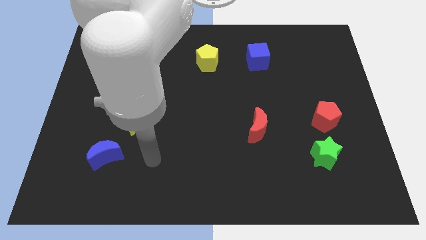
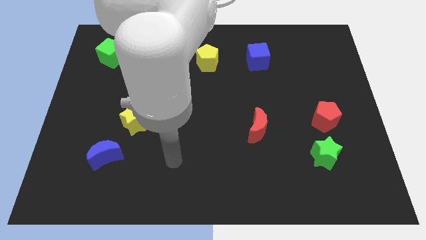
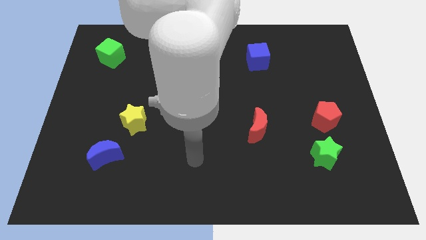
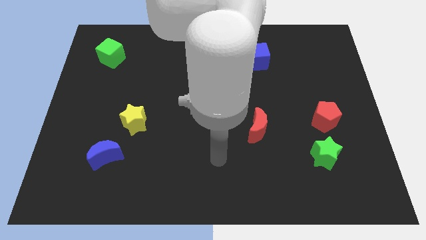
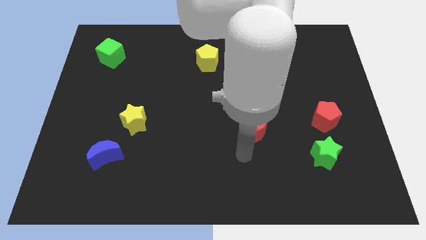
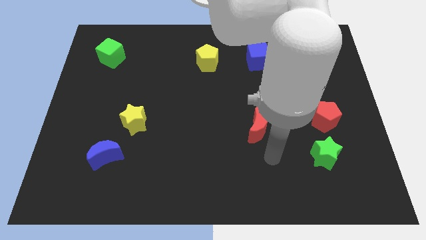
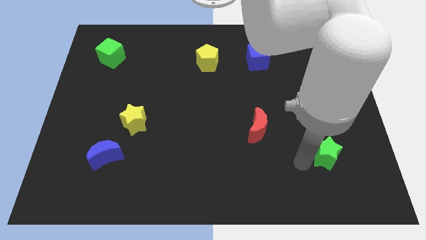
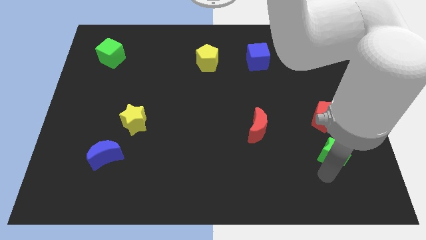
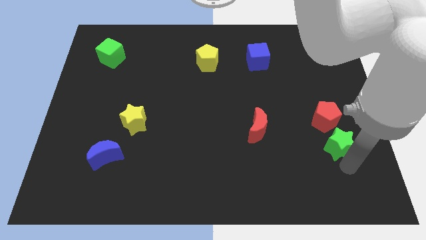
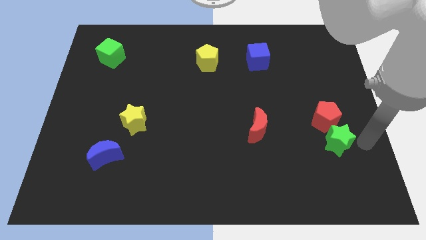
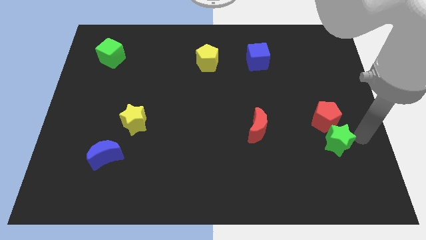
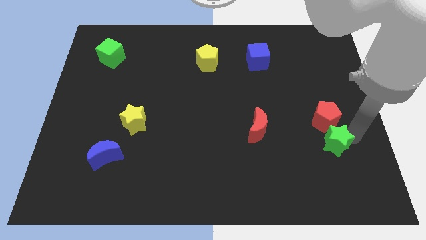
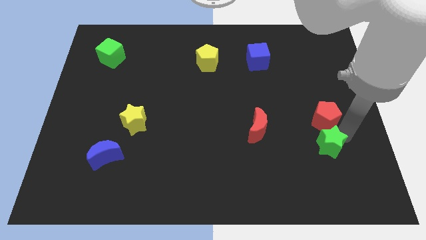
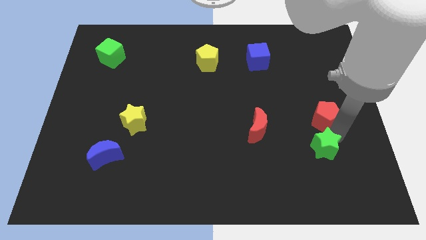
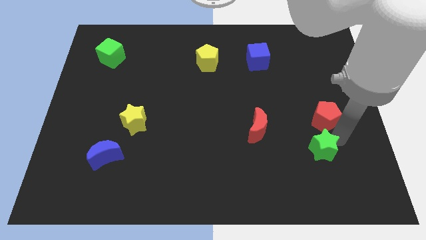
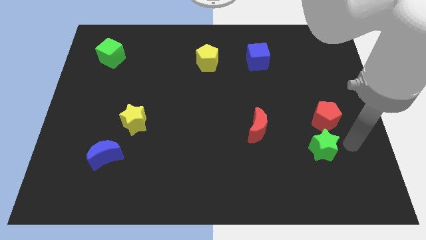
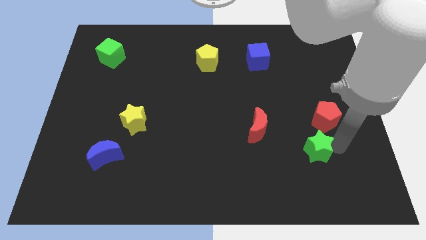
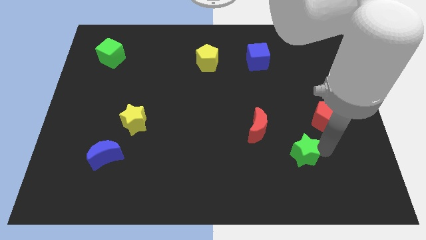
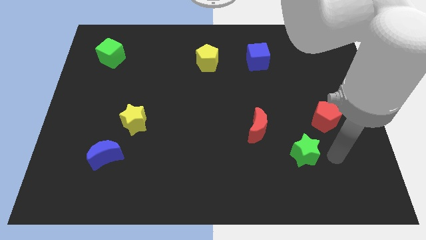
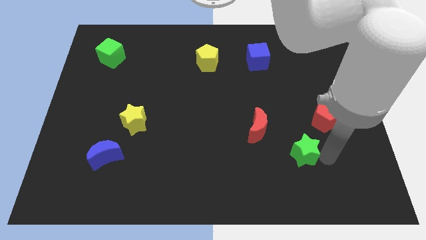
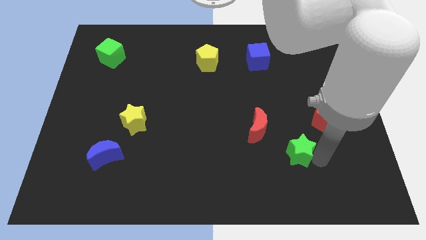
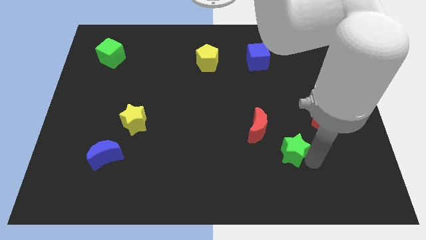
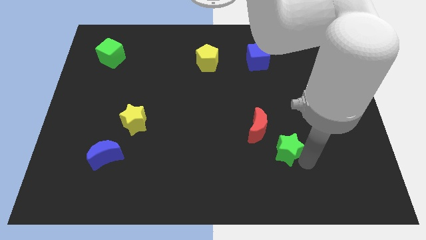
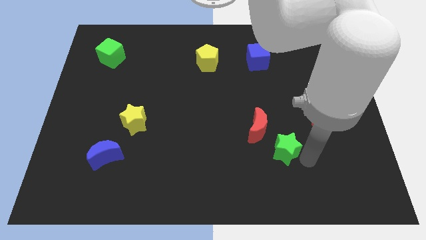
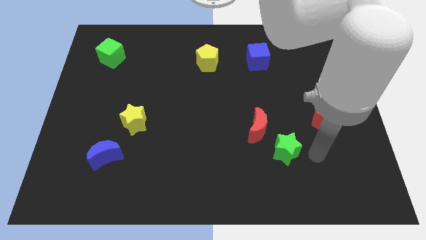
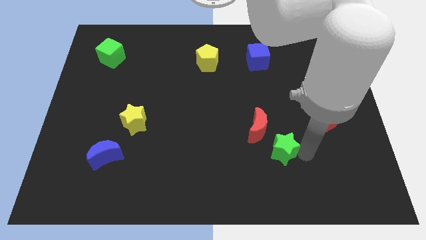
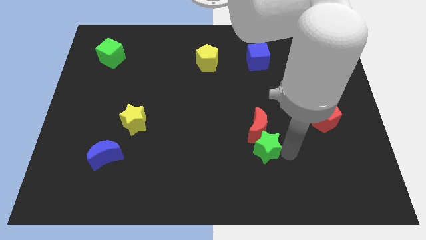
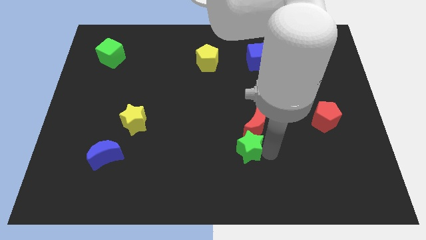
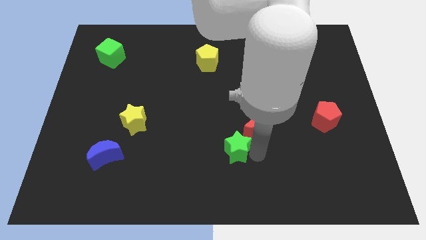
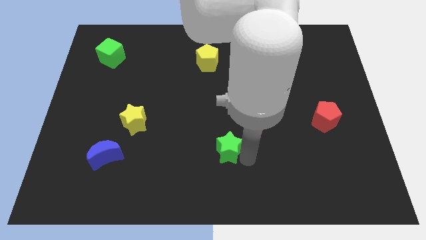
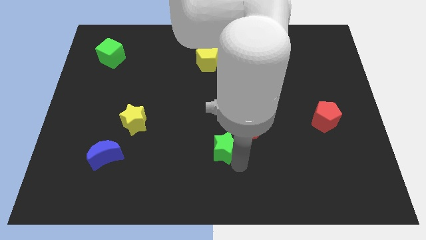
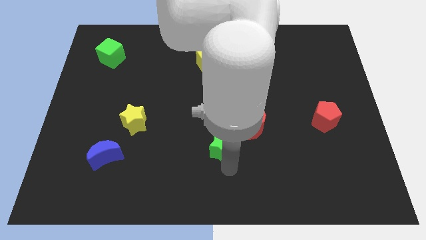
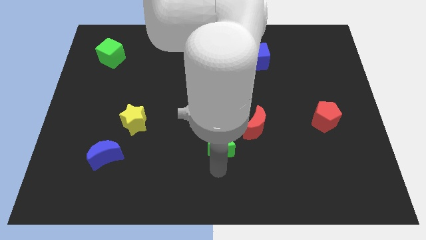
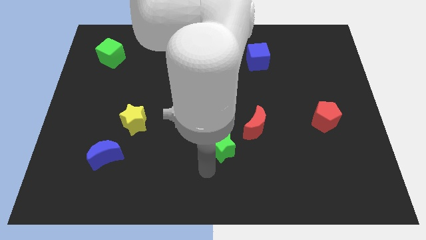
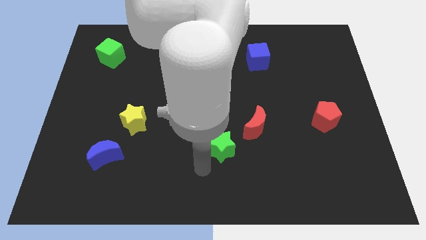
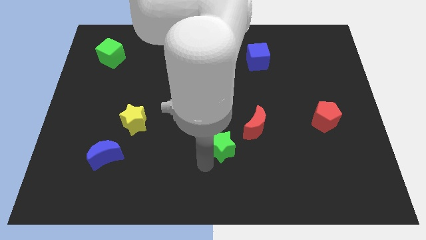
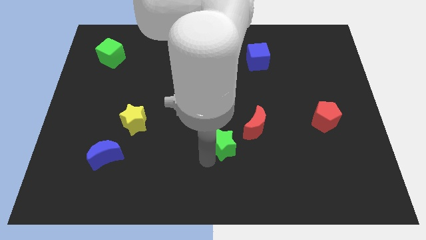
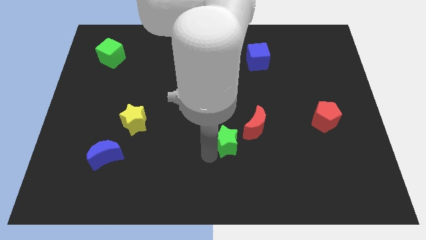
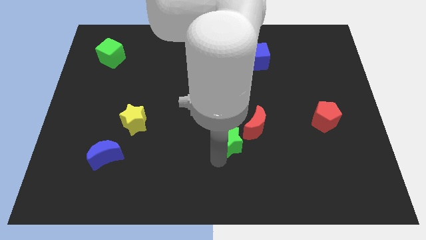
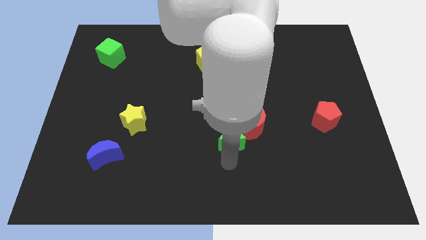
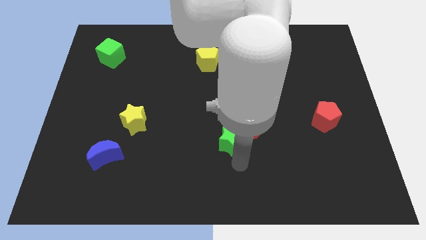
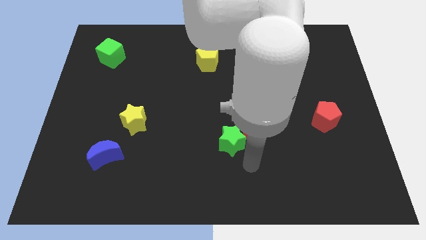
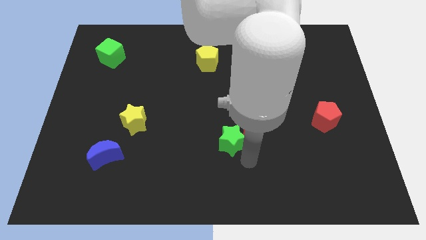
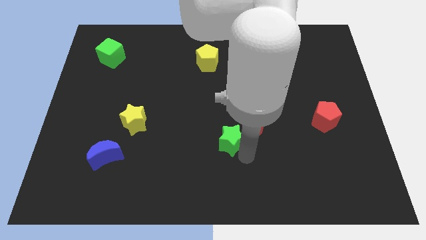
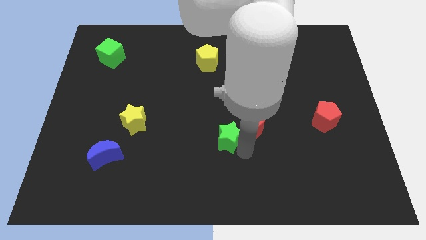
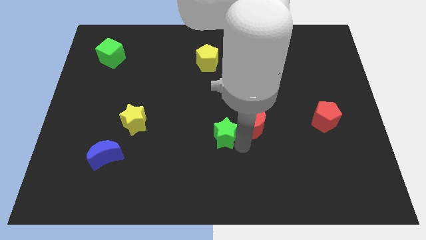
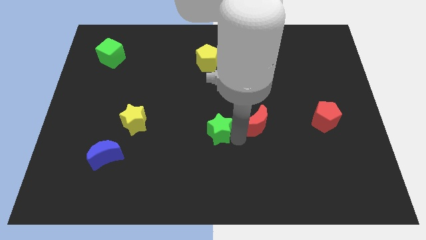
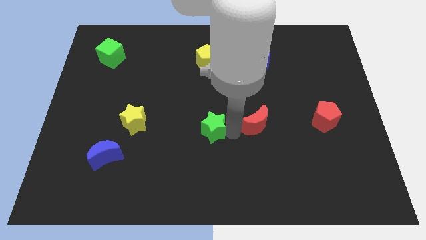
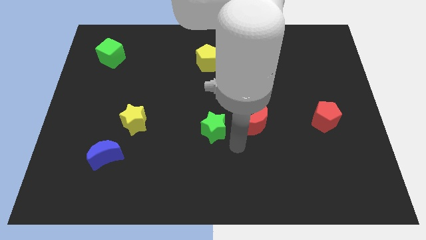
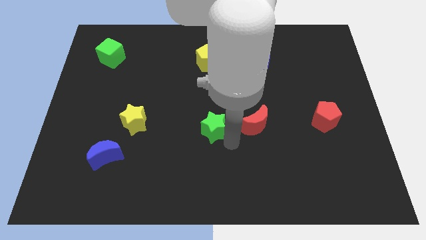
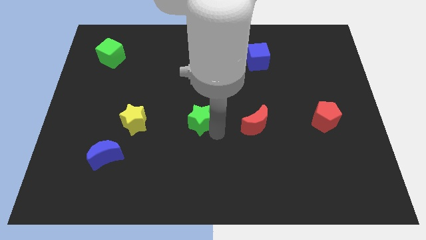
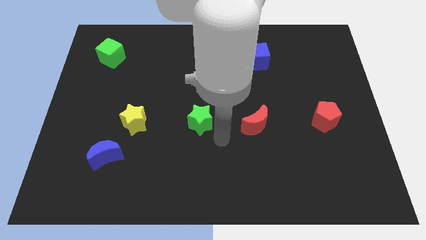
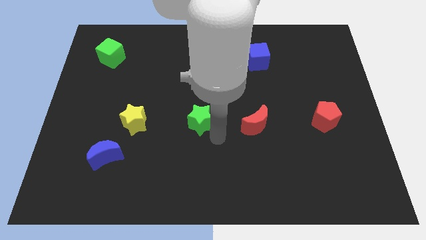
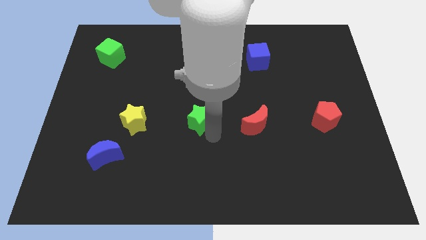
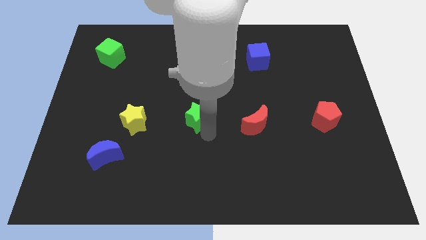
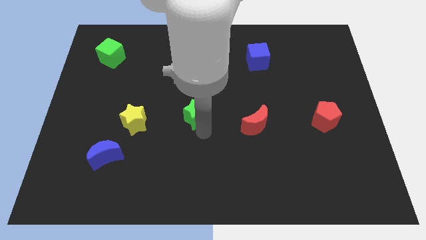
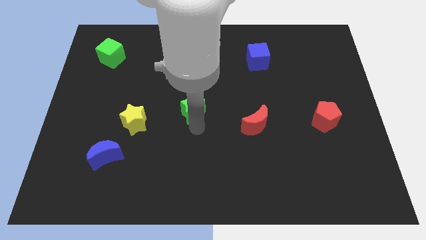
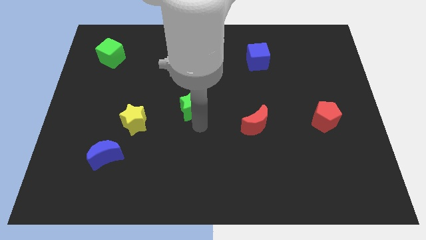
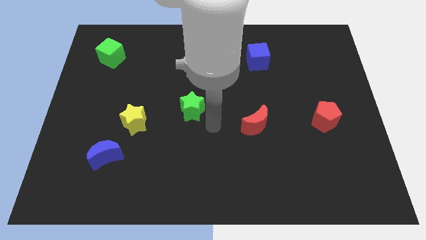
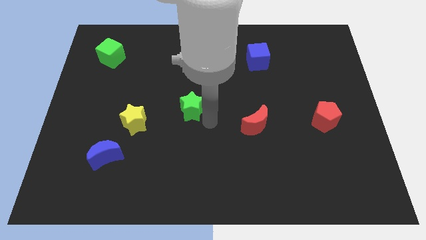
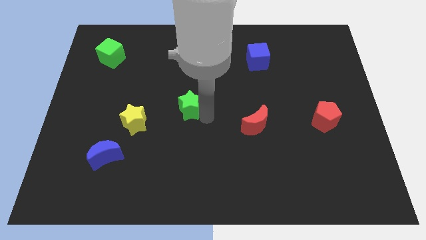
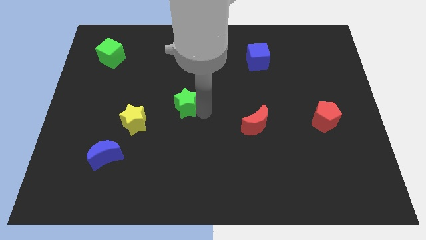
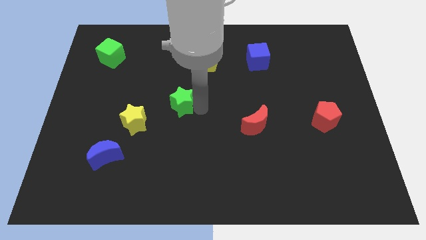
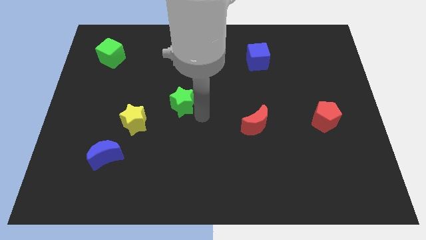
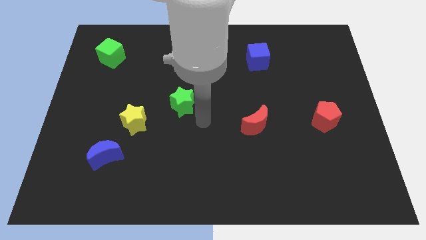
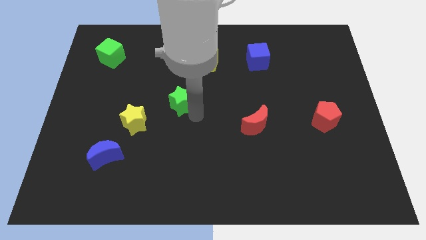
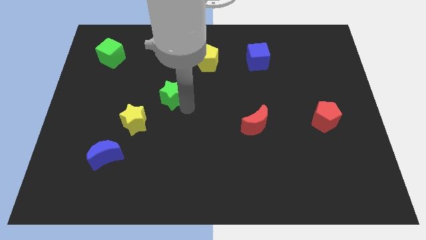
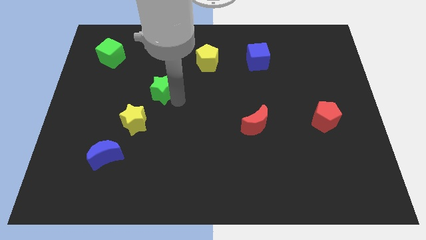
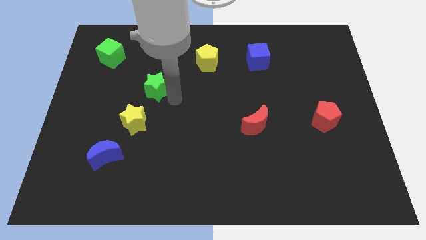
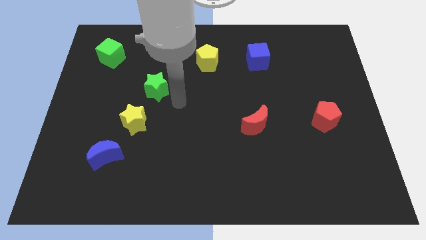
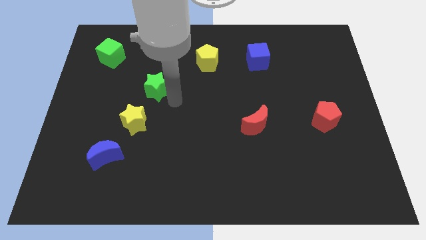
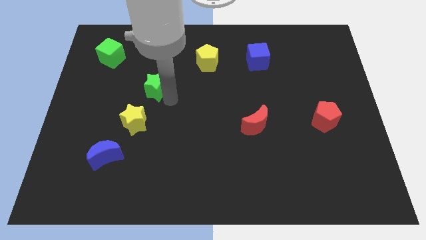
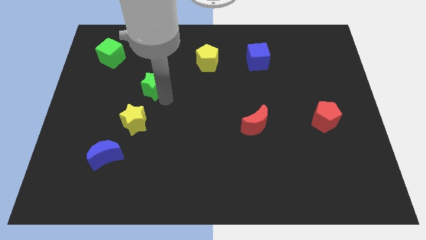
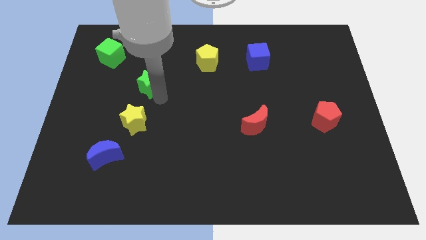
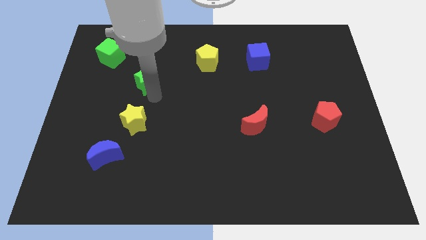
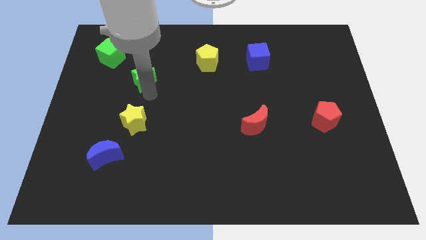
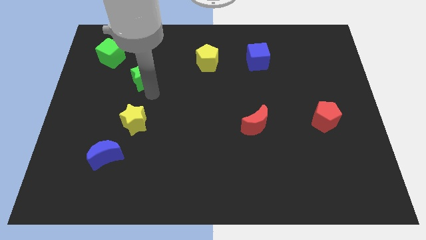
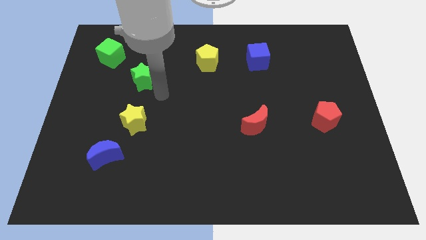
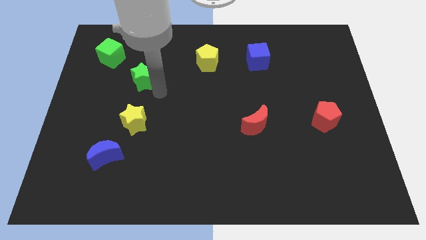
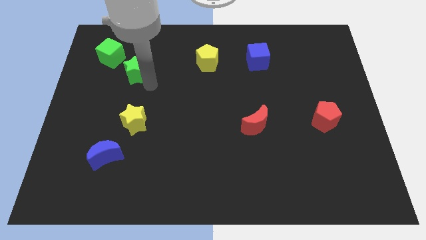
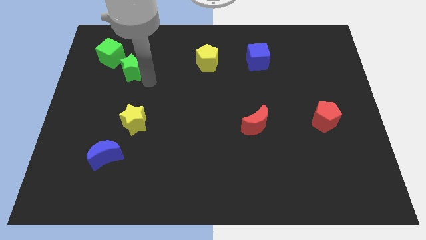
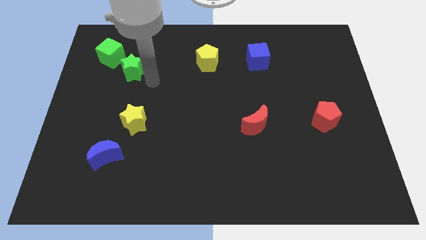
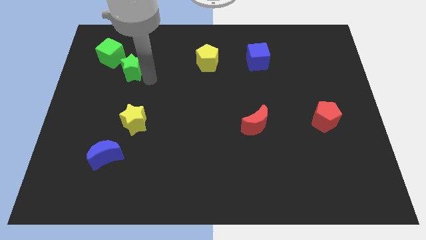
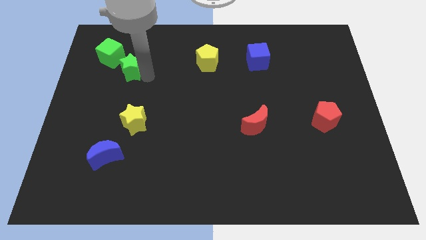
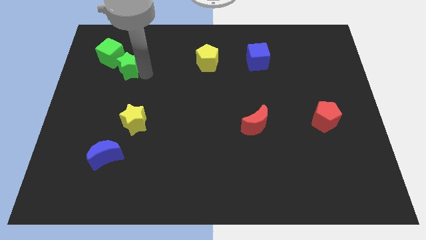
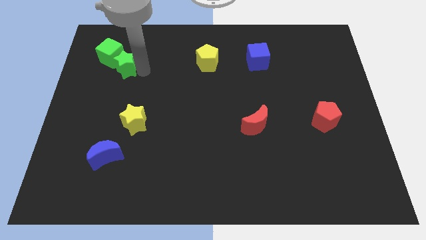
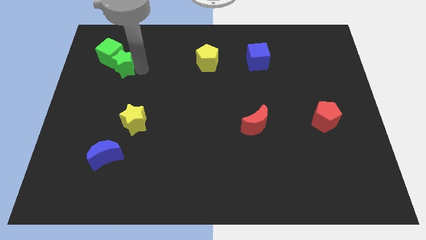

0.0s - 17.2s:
move the green star to the green cube
